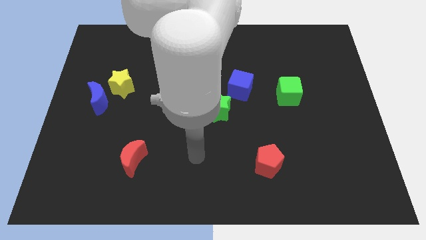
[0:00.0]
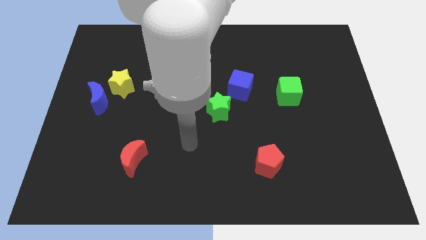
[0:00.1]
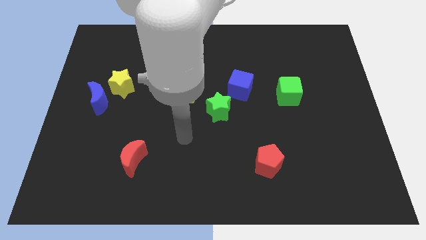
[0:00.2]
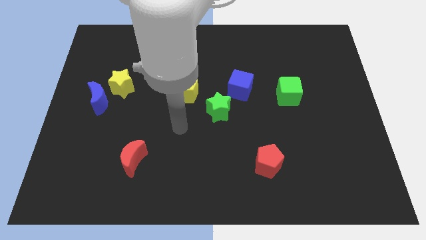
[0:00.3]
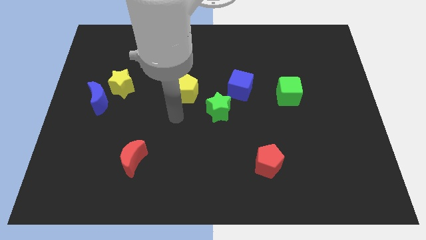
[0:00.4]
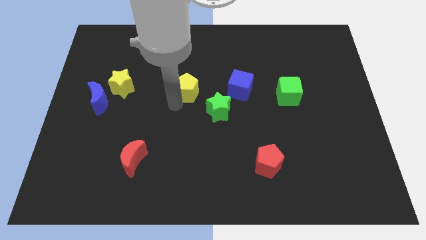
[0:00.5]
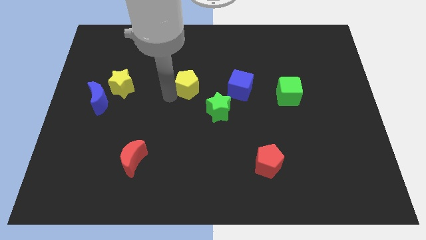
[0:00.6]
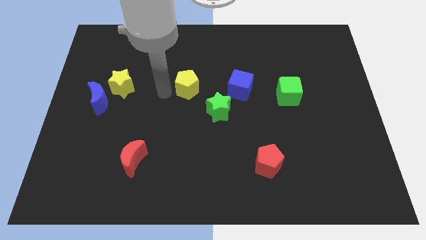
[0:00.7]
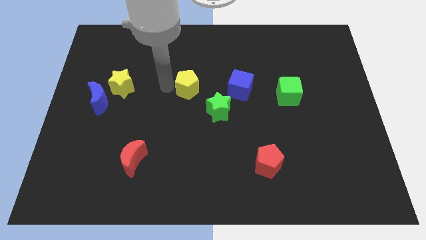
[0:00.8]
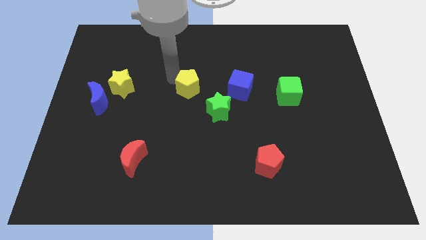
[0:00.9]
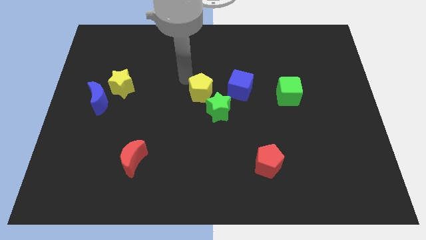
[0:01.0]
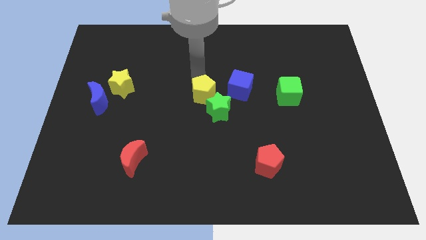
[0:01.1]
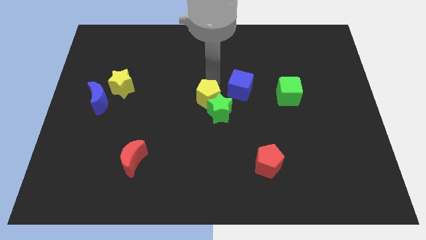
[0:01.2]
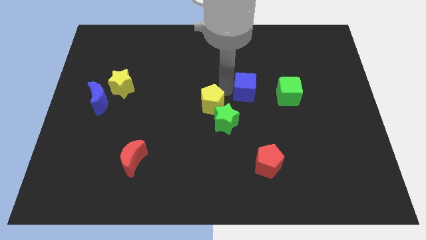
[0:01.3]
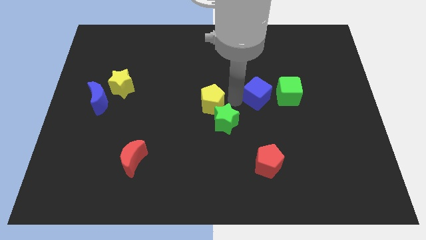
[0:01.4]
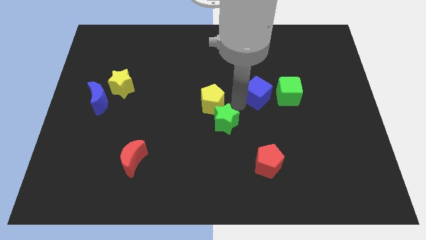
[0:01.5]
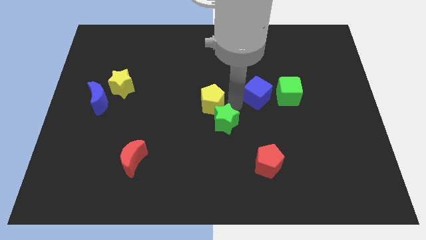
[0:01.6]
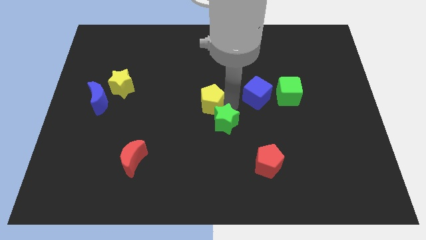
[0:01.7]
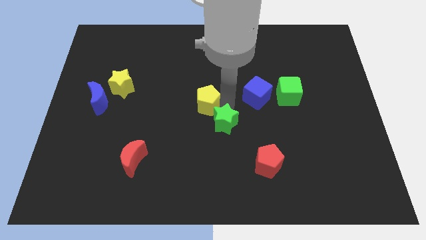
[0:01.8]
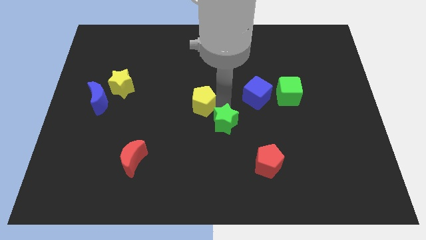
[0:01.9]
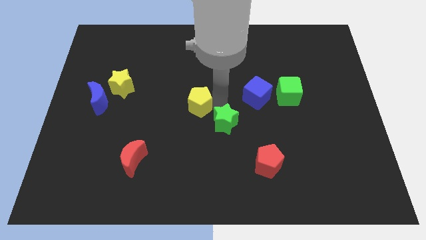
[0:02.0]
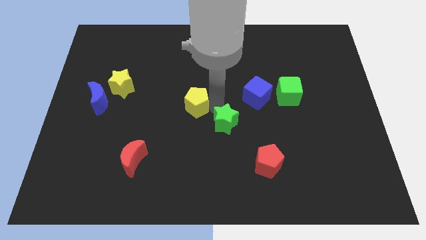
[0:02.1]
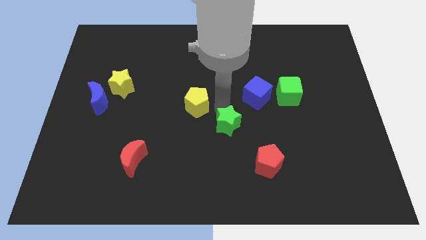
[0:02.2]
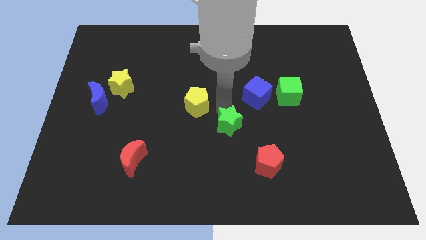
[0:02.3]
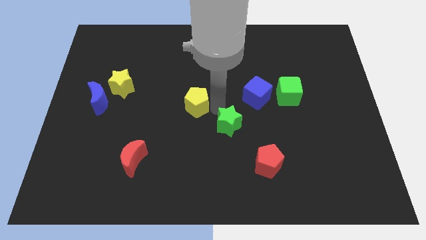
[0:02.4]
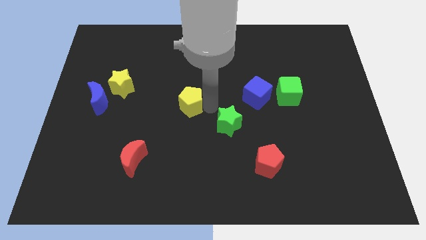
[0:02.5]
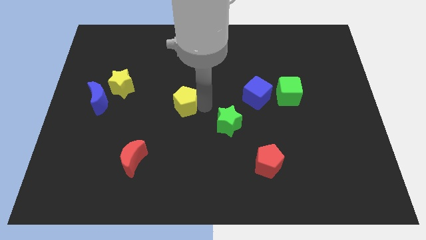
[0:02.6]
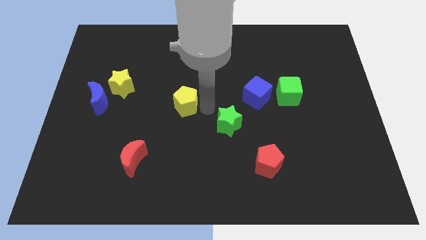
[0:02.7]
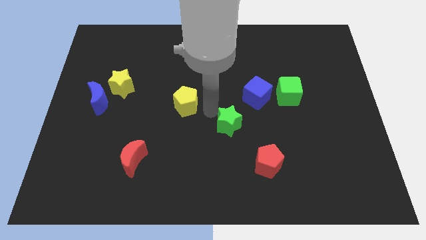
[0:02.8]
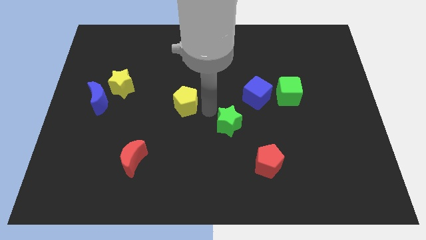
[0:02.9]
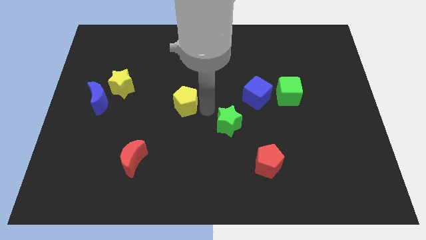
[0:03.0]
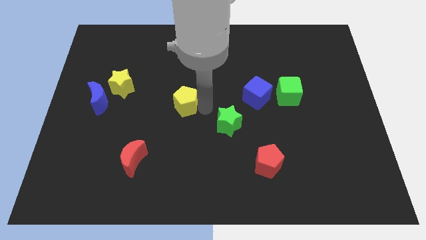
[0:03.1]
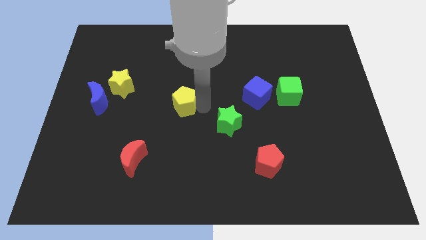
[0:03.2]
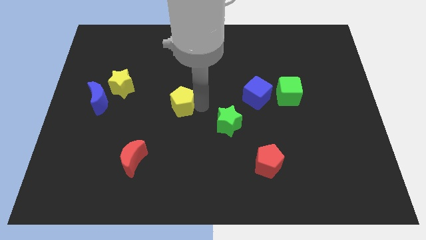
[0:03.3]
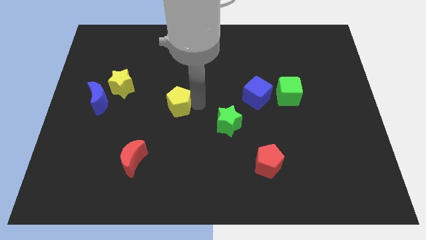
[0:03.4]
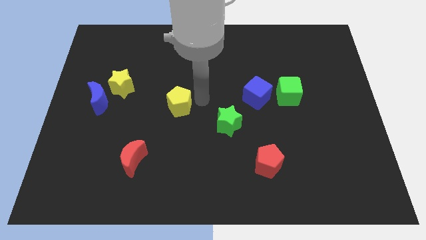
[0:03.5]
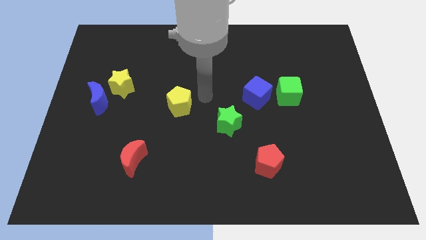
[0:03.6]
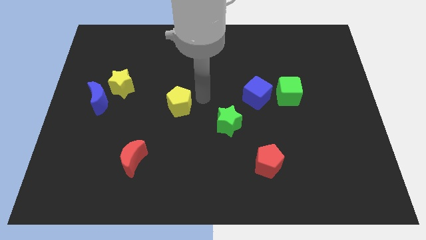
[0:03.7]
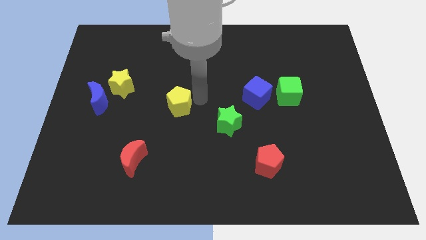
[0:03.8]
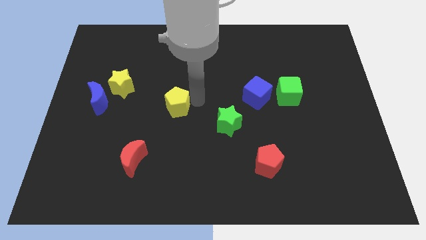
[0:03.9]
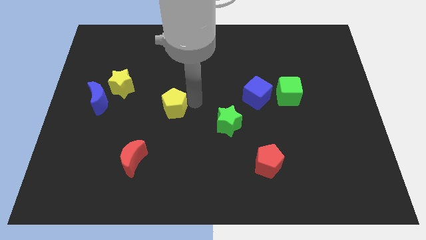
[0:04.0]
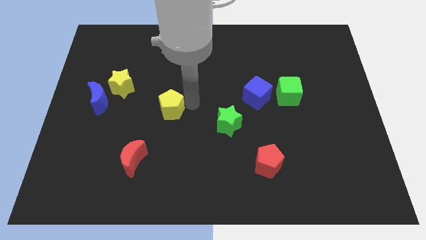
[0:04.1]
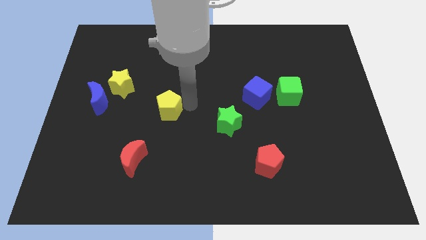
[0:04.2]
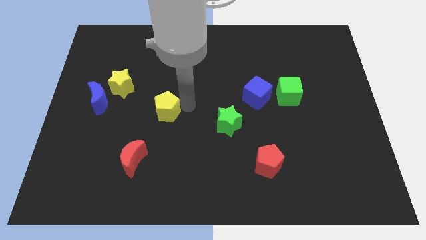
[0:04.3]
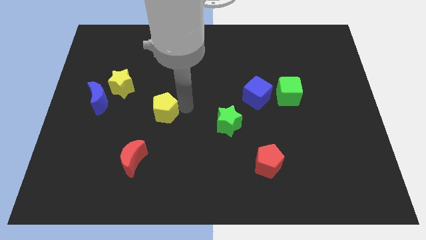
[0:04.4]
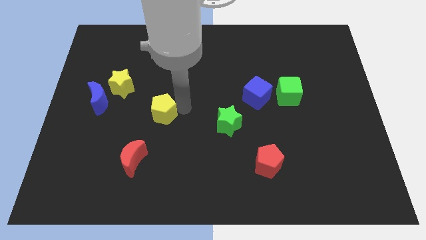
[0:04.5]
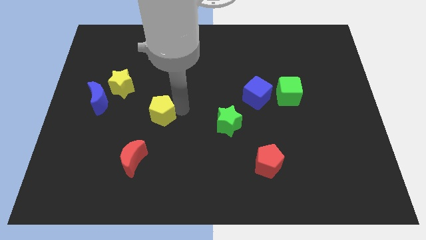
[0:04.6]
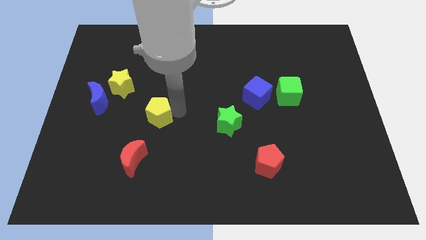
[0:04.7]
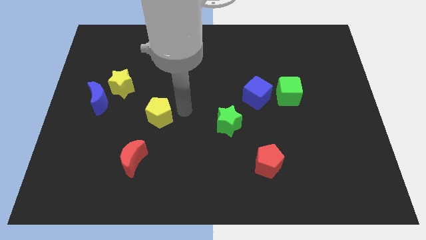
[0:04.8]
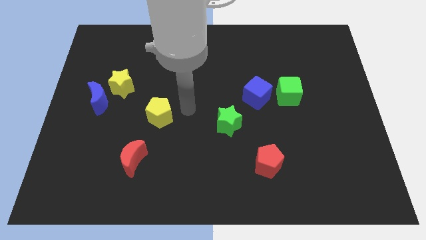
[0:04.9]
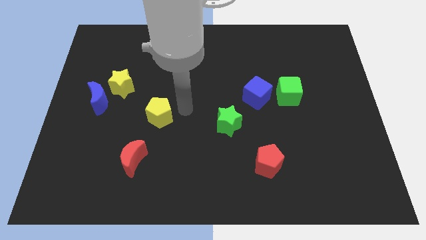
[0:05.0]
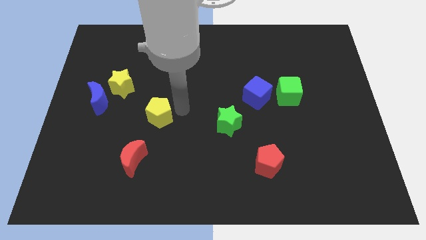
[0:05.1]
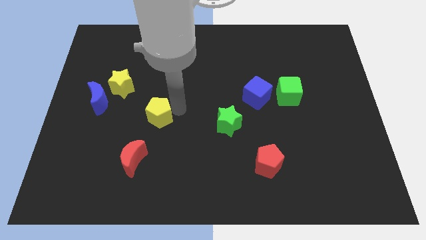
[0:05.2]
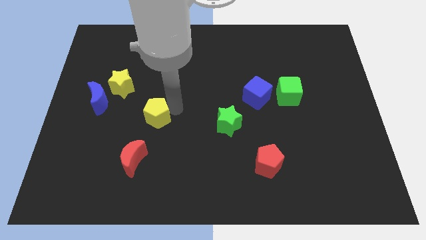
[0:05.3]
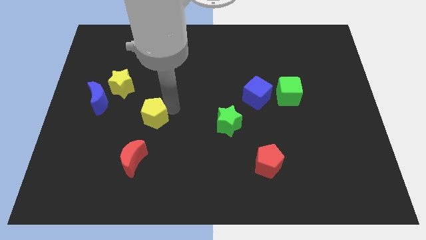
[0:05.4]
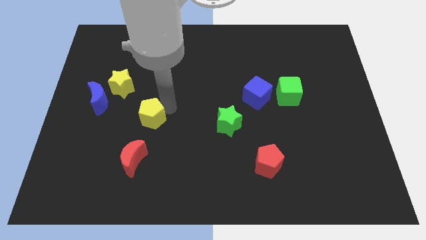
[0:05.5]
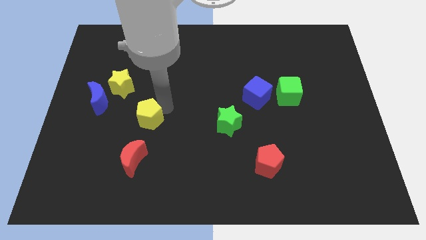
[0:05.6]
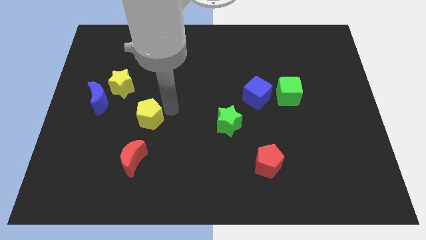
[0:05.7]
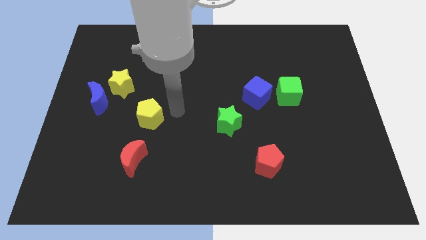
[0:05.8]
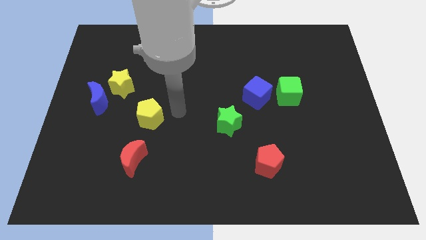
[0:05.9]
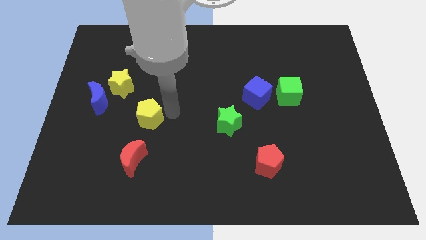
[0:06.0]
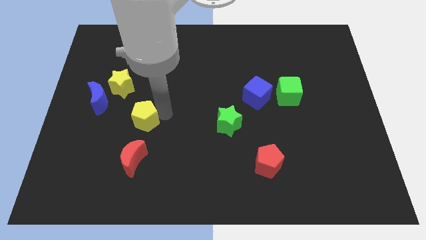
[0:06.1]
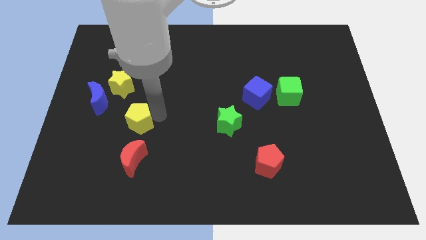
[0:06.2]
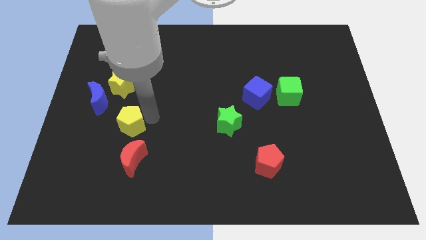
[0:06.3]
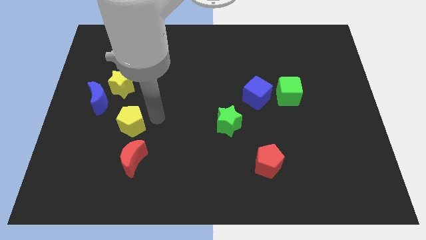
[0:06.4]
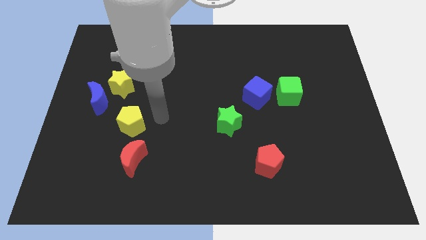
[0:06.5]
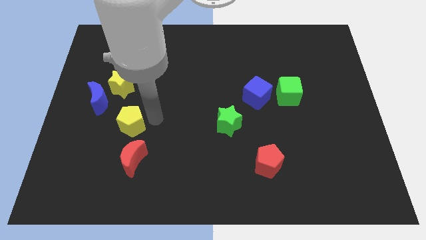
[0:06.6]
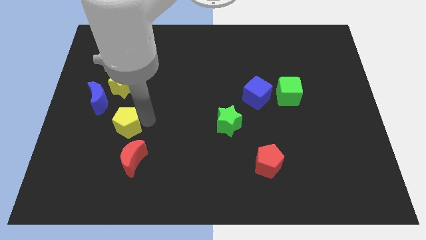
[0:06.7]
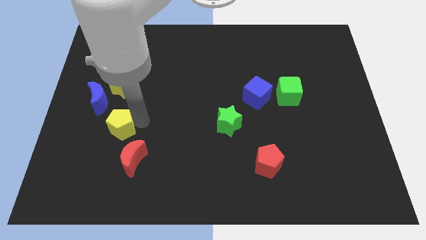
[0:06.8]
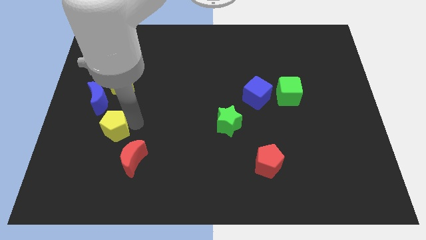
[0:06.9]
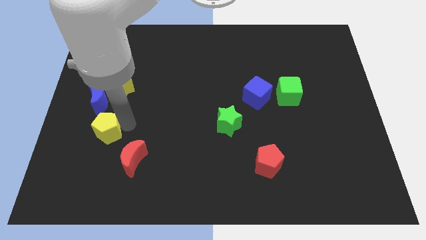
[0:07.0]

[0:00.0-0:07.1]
move the yellow pentagon to the bottom of the blue moon
